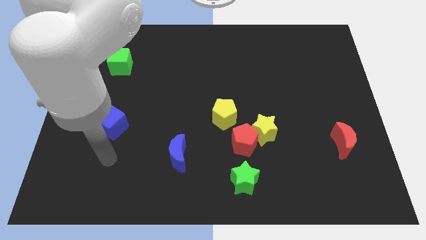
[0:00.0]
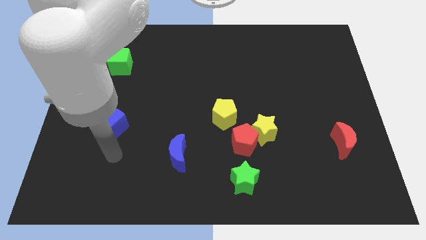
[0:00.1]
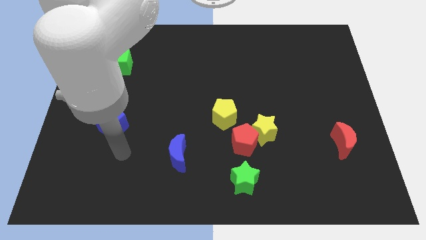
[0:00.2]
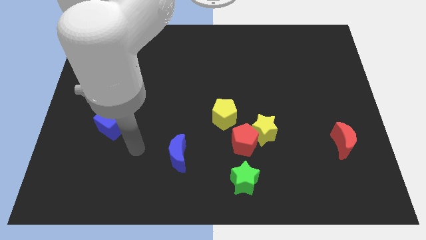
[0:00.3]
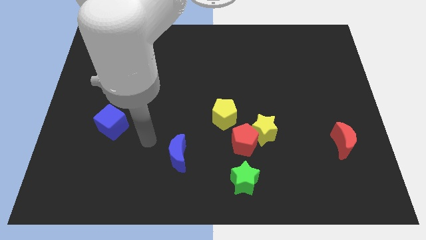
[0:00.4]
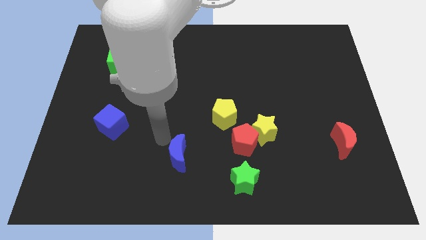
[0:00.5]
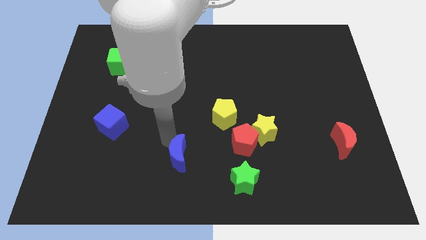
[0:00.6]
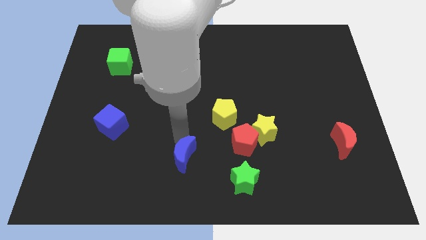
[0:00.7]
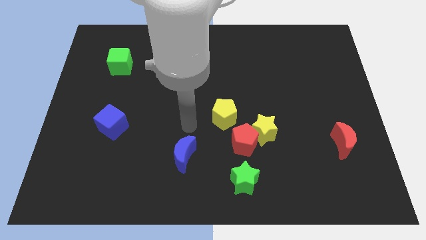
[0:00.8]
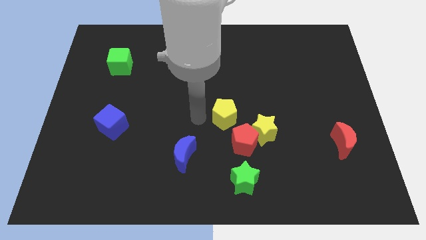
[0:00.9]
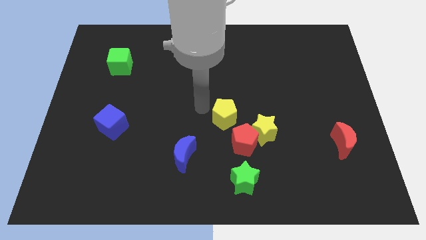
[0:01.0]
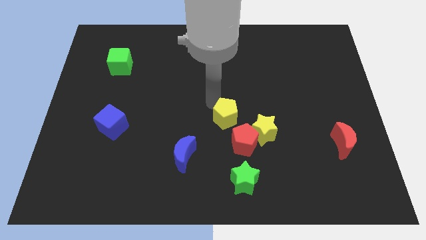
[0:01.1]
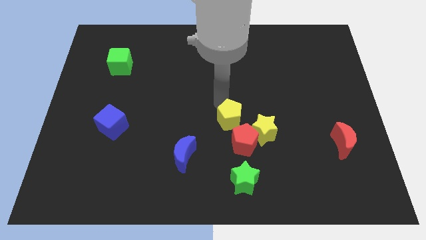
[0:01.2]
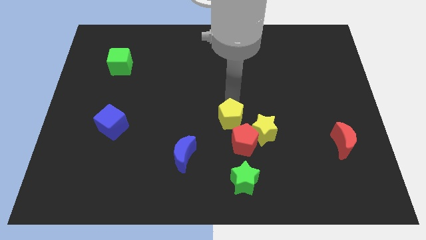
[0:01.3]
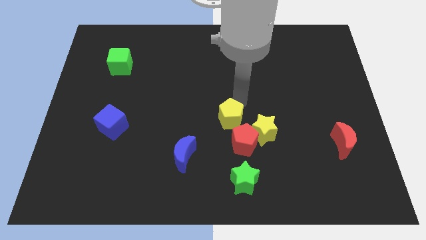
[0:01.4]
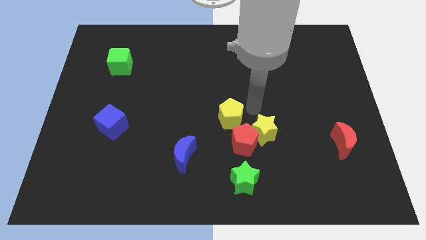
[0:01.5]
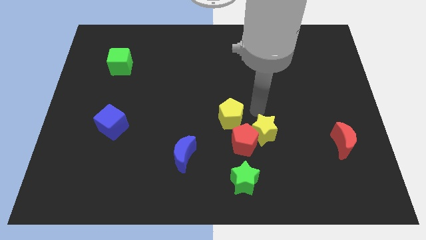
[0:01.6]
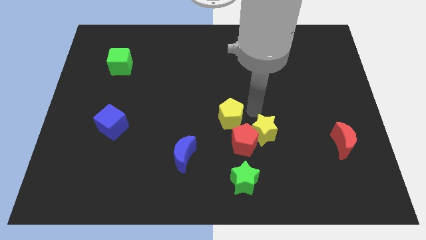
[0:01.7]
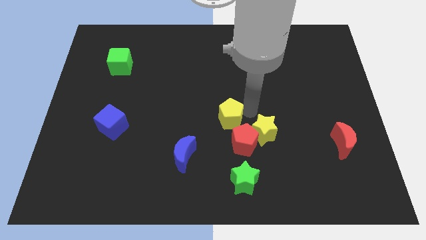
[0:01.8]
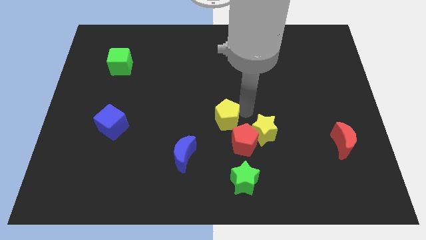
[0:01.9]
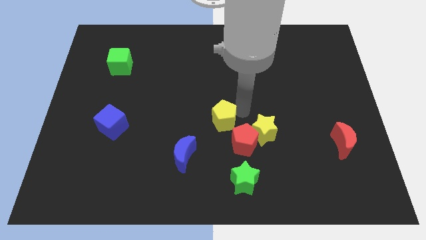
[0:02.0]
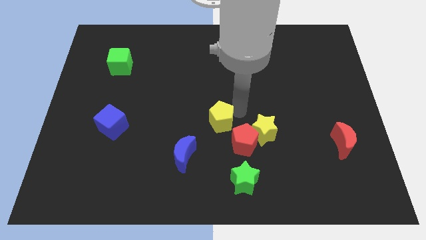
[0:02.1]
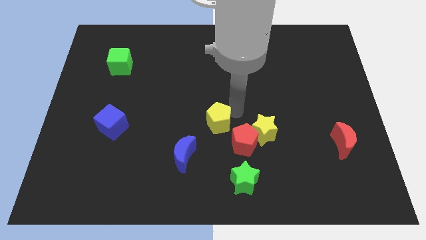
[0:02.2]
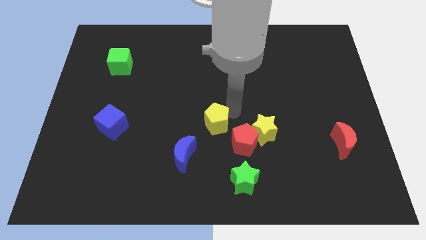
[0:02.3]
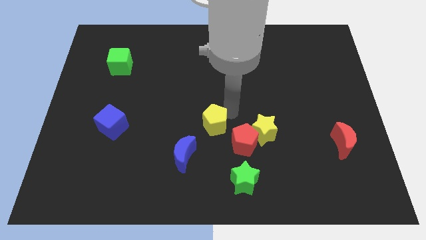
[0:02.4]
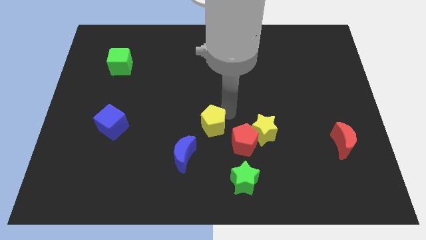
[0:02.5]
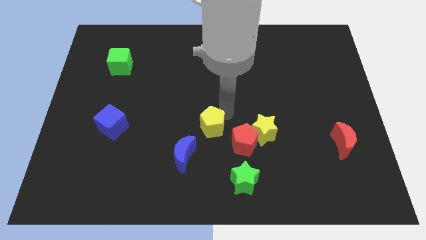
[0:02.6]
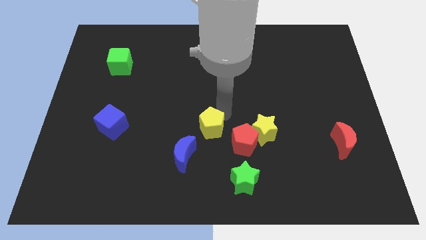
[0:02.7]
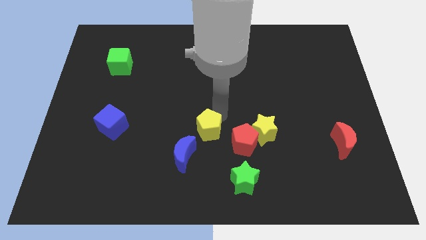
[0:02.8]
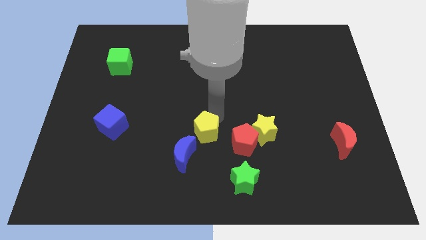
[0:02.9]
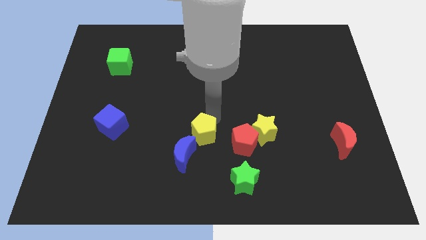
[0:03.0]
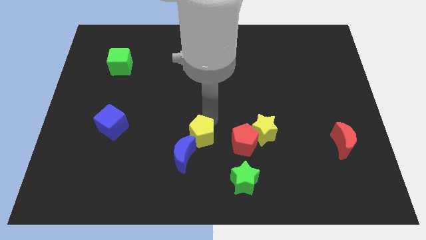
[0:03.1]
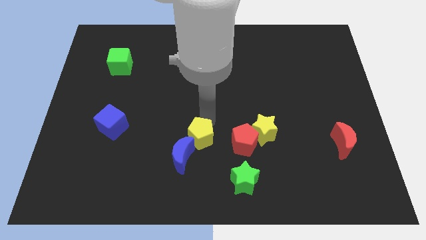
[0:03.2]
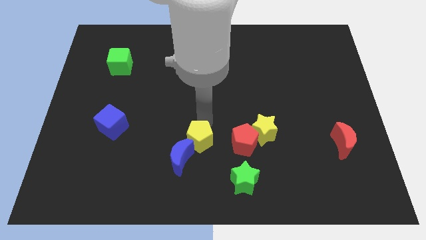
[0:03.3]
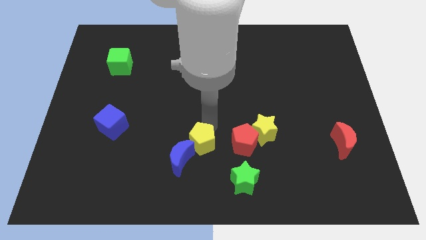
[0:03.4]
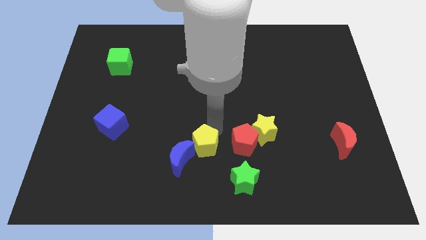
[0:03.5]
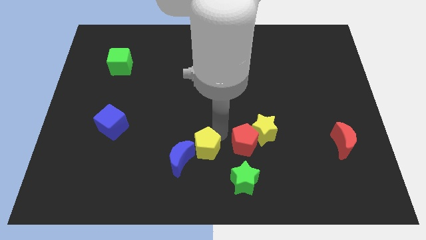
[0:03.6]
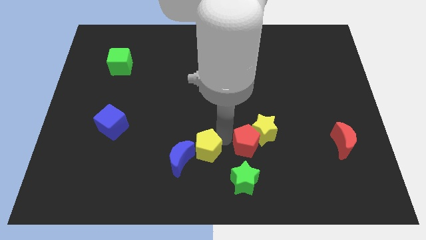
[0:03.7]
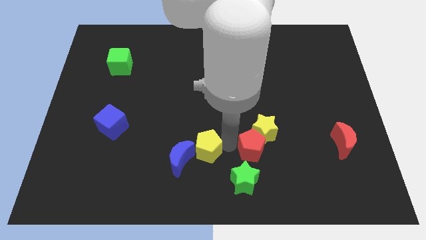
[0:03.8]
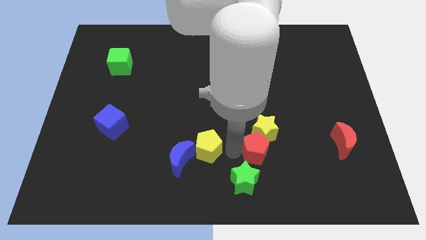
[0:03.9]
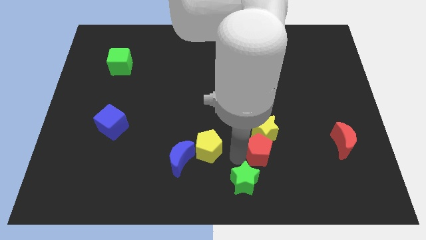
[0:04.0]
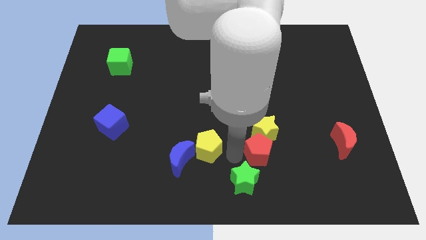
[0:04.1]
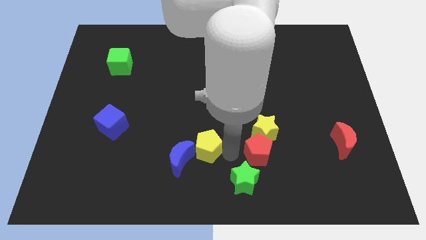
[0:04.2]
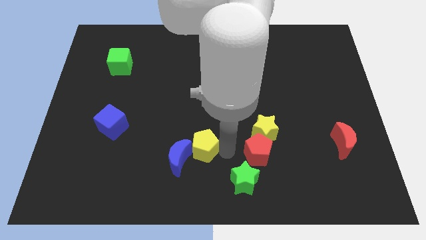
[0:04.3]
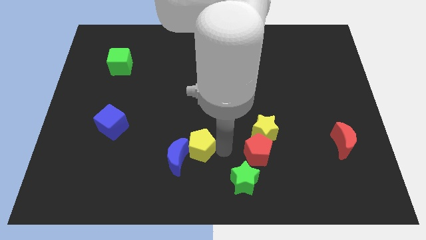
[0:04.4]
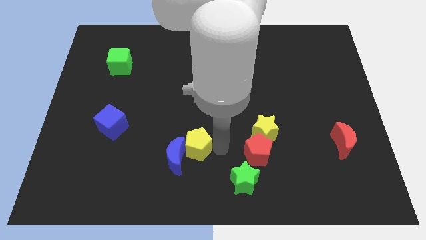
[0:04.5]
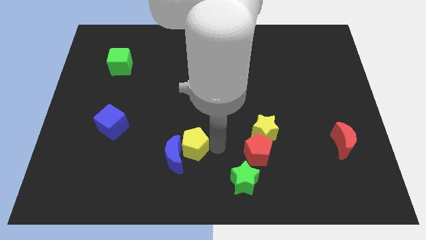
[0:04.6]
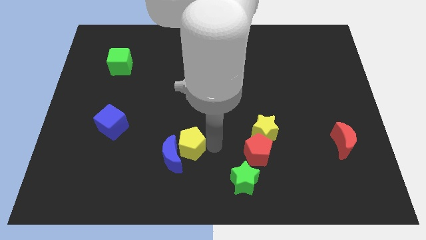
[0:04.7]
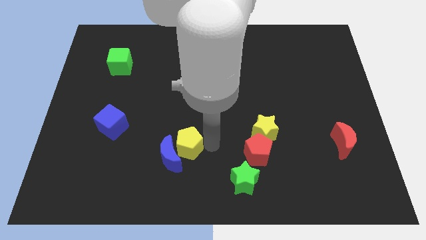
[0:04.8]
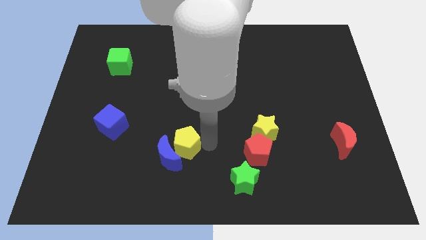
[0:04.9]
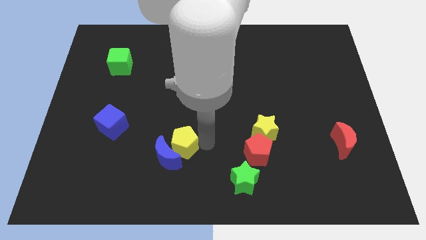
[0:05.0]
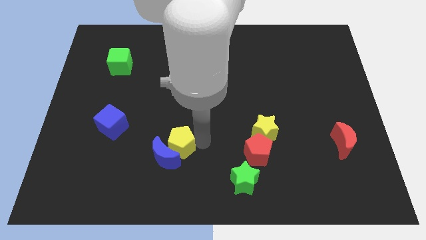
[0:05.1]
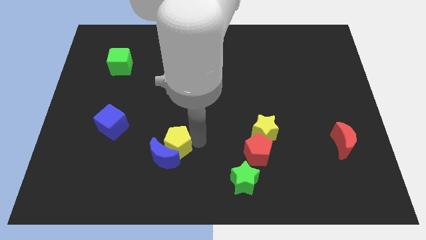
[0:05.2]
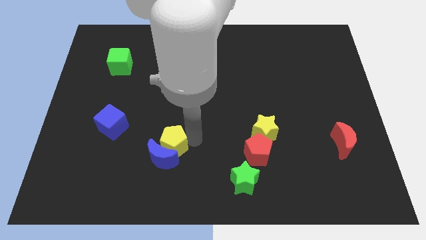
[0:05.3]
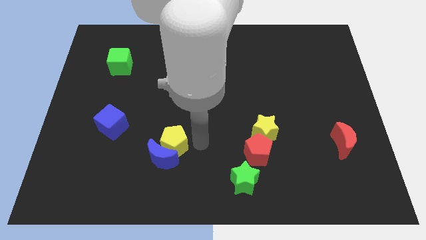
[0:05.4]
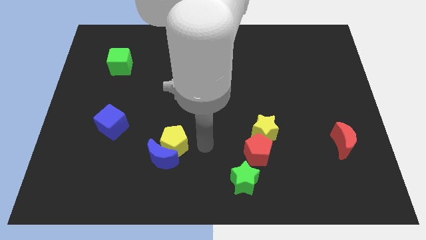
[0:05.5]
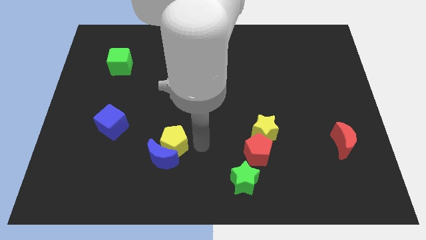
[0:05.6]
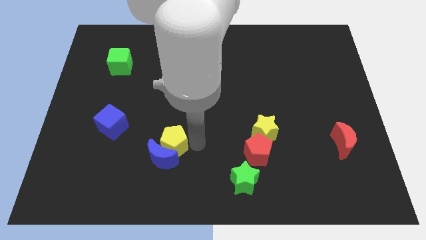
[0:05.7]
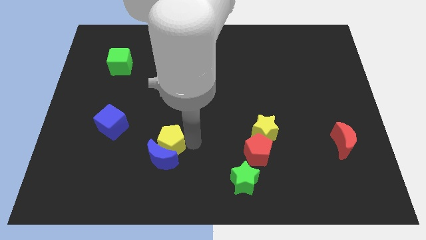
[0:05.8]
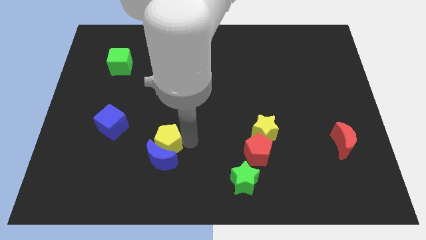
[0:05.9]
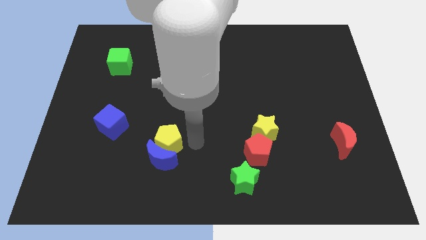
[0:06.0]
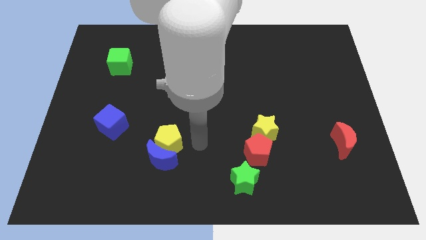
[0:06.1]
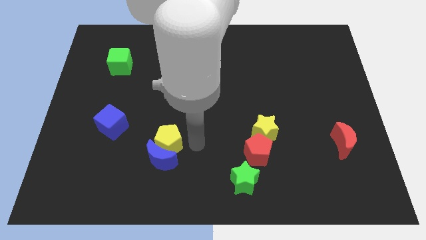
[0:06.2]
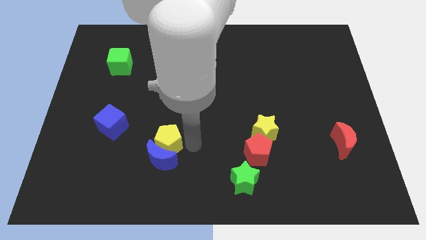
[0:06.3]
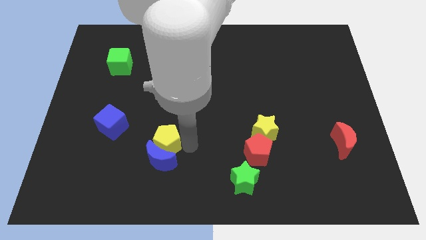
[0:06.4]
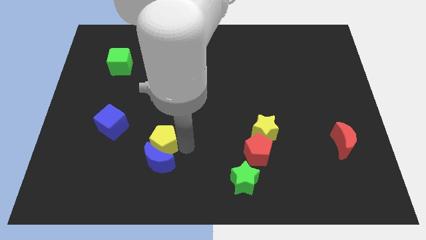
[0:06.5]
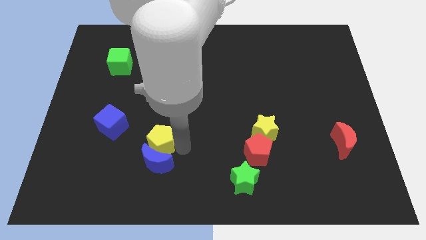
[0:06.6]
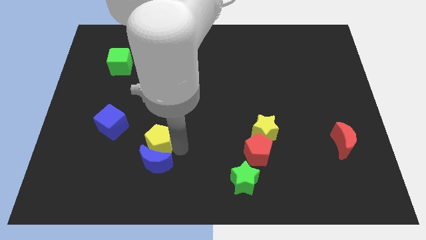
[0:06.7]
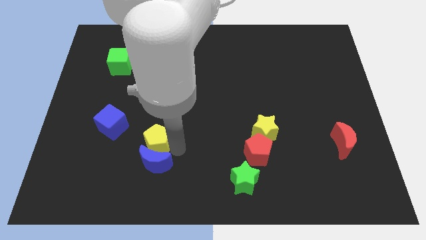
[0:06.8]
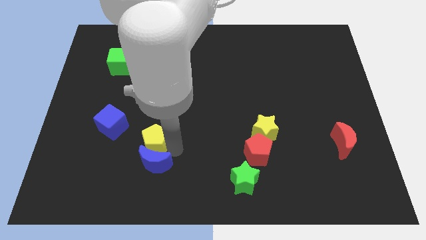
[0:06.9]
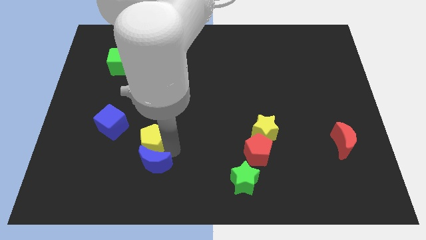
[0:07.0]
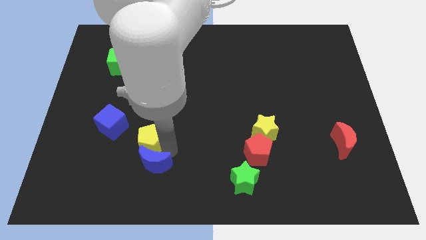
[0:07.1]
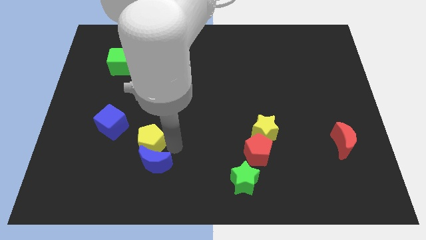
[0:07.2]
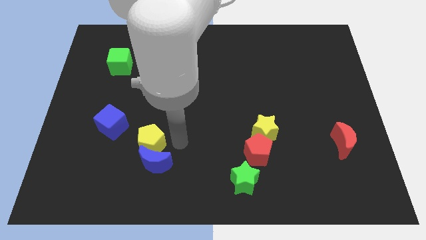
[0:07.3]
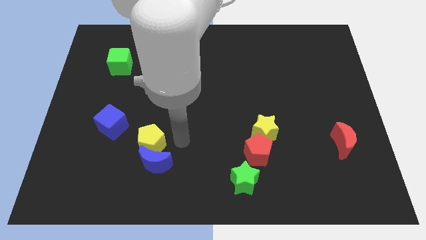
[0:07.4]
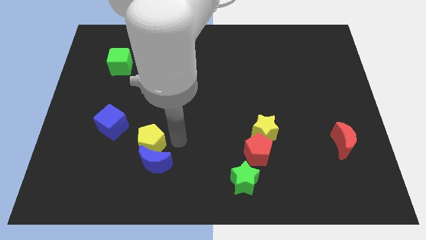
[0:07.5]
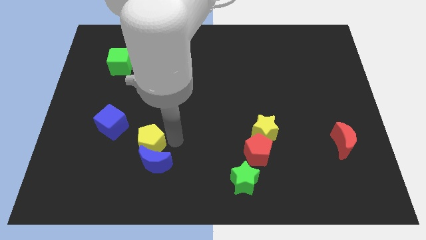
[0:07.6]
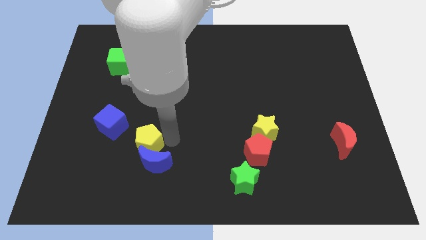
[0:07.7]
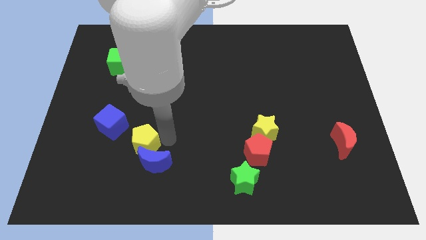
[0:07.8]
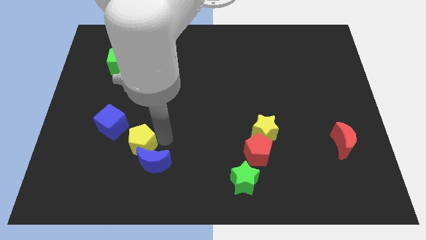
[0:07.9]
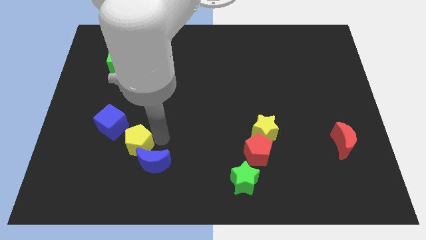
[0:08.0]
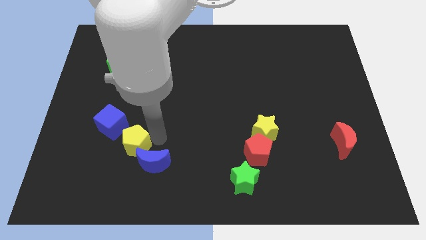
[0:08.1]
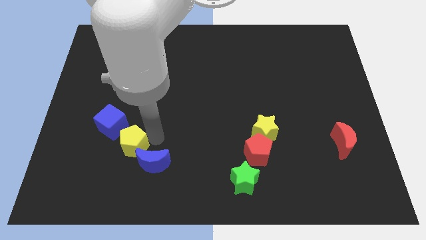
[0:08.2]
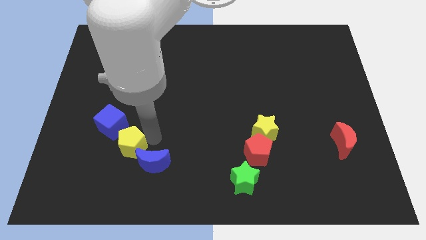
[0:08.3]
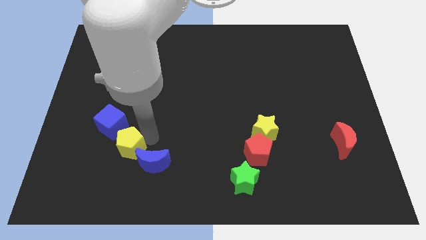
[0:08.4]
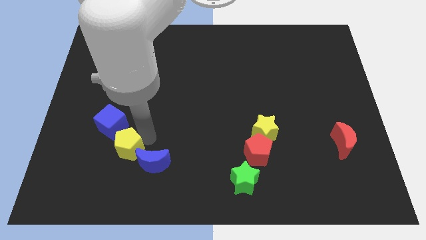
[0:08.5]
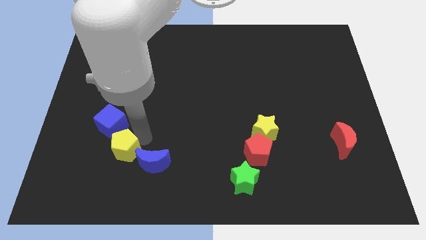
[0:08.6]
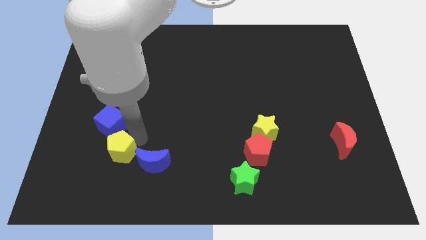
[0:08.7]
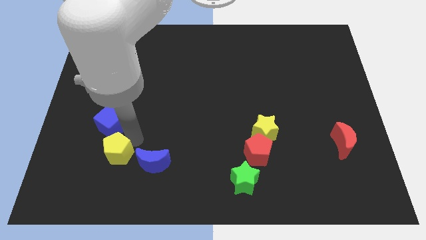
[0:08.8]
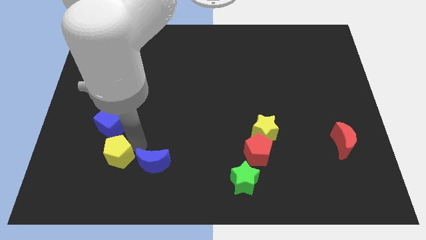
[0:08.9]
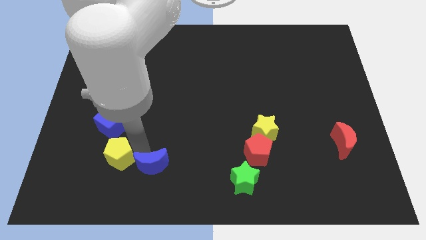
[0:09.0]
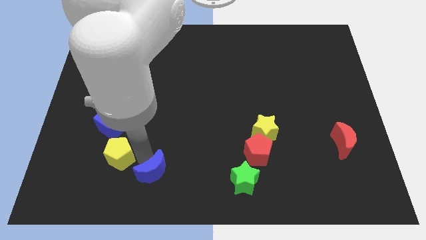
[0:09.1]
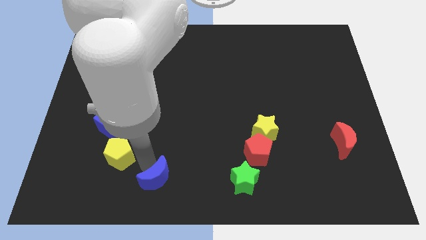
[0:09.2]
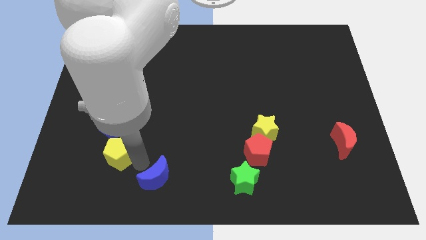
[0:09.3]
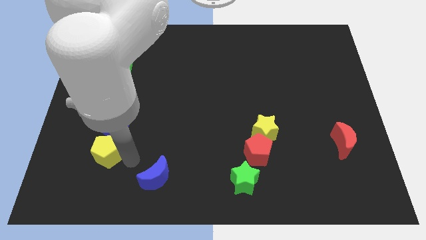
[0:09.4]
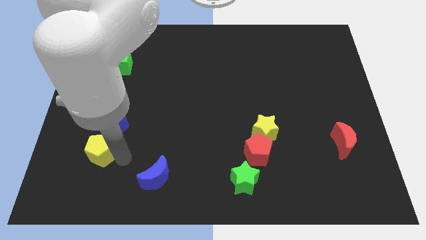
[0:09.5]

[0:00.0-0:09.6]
push the yellow pentagon diagonally down and to the left of the blue cube
